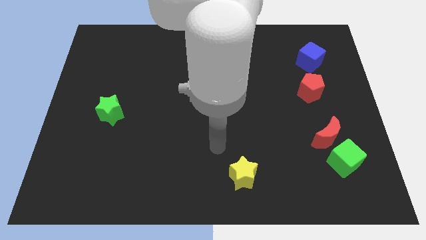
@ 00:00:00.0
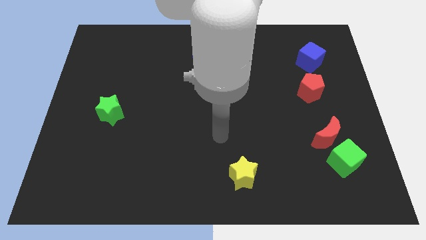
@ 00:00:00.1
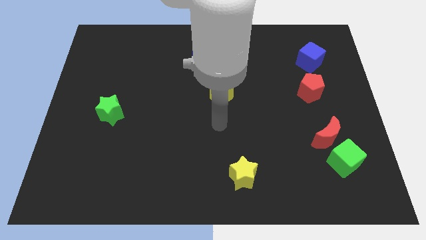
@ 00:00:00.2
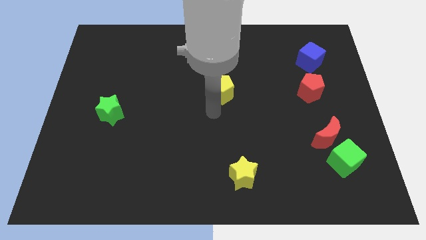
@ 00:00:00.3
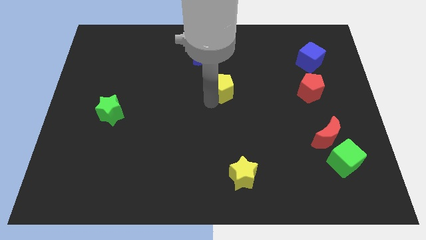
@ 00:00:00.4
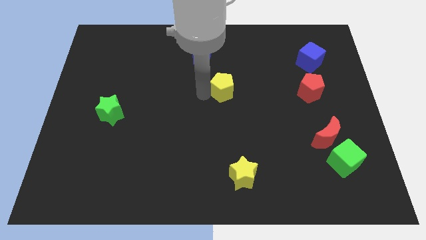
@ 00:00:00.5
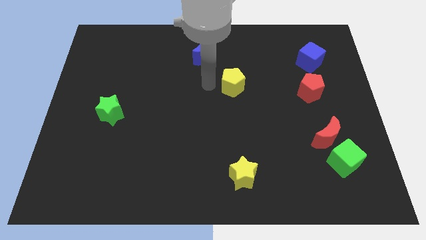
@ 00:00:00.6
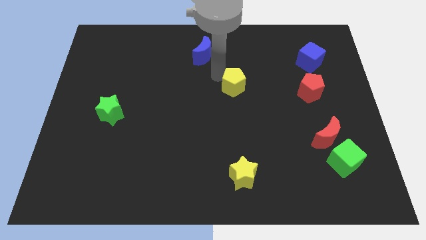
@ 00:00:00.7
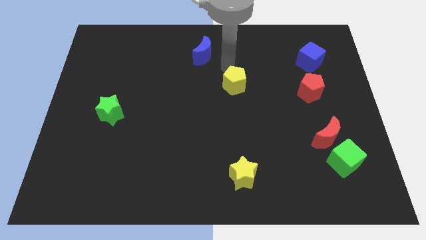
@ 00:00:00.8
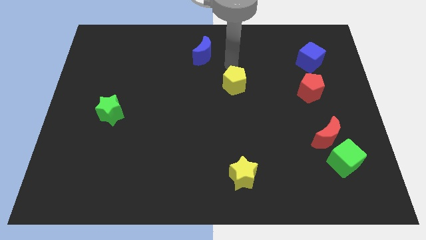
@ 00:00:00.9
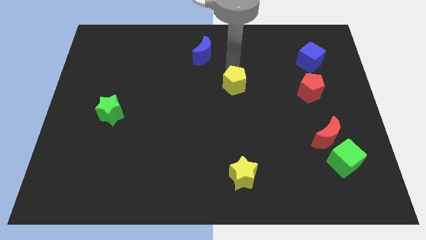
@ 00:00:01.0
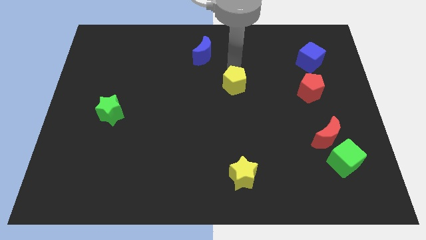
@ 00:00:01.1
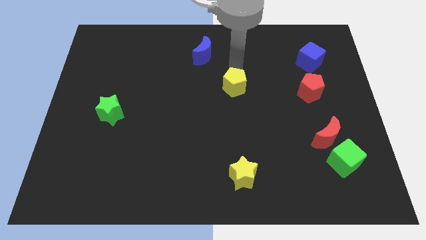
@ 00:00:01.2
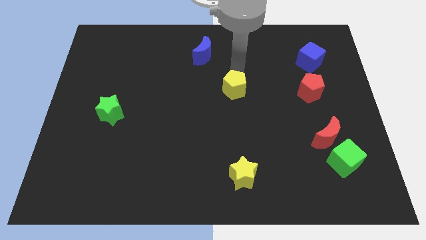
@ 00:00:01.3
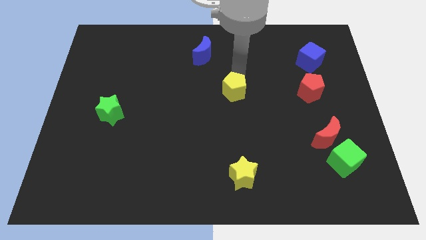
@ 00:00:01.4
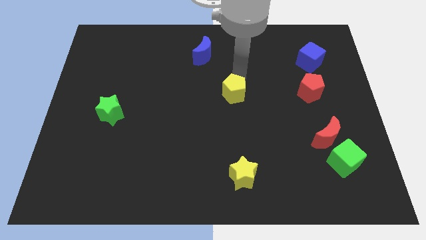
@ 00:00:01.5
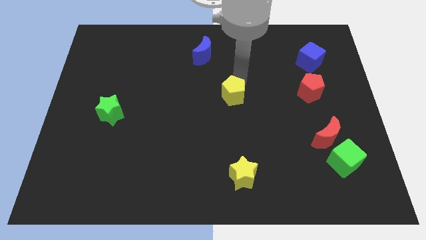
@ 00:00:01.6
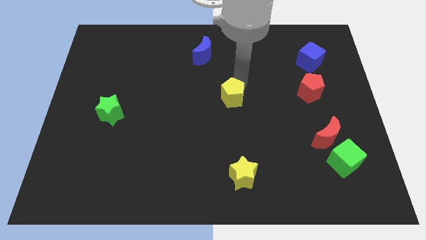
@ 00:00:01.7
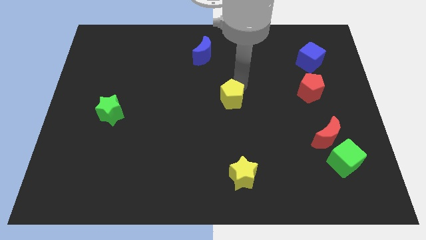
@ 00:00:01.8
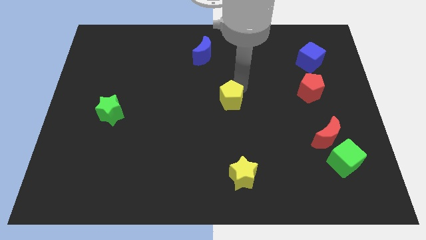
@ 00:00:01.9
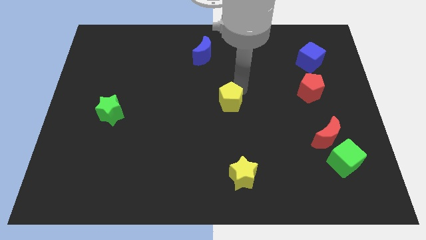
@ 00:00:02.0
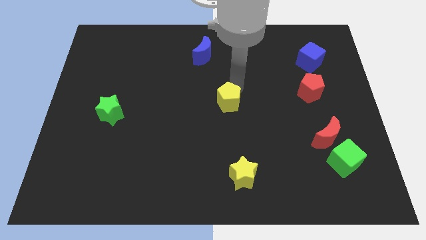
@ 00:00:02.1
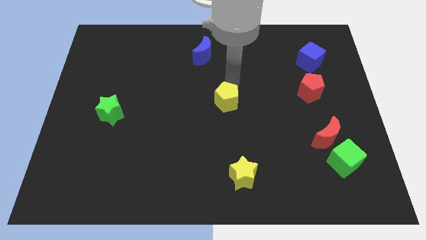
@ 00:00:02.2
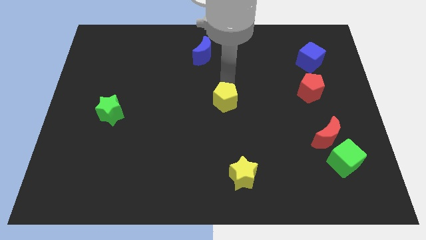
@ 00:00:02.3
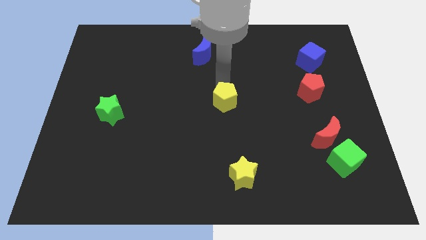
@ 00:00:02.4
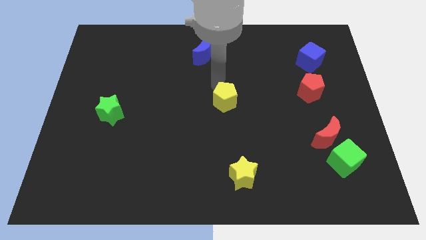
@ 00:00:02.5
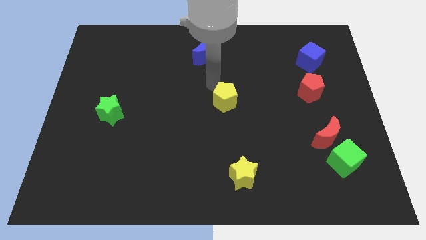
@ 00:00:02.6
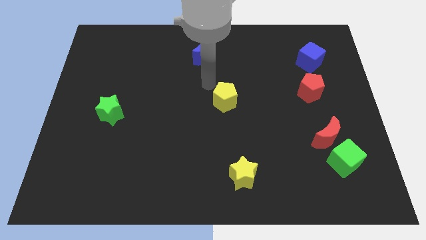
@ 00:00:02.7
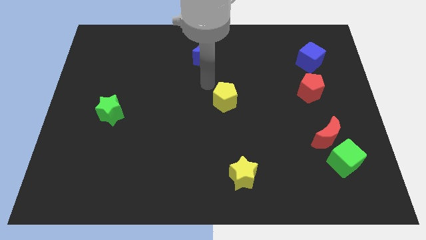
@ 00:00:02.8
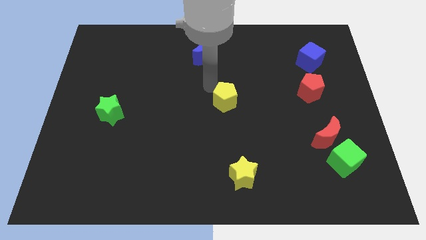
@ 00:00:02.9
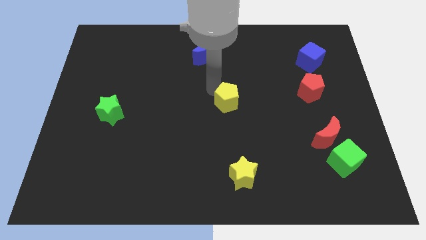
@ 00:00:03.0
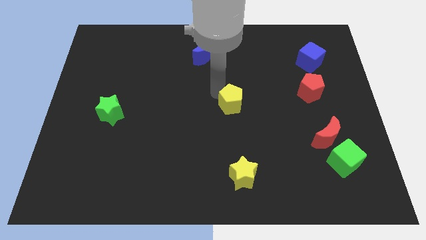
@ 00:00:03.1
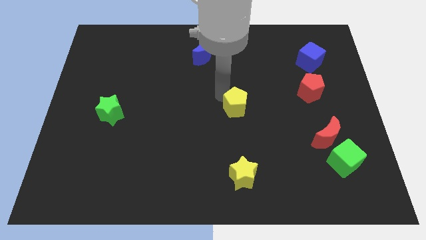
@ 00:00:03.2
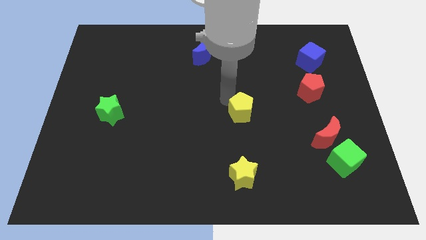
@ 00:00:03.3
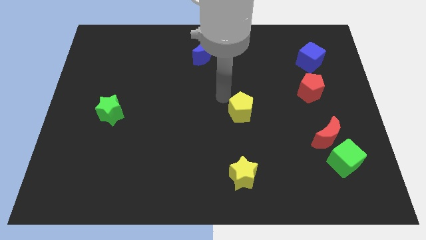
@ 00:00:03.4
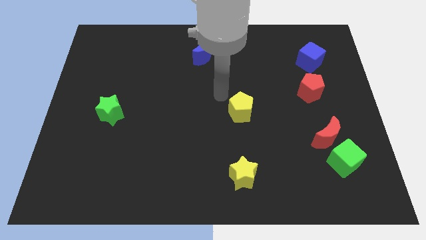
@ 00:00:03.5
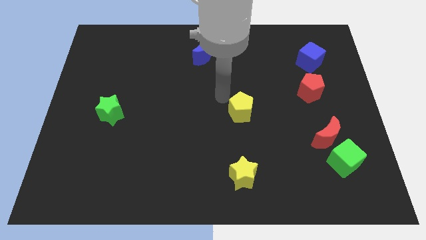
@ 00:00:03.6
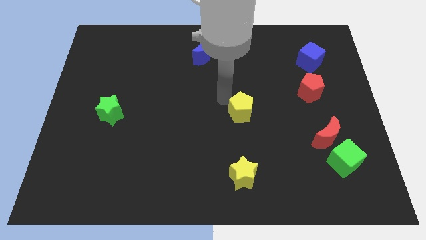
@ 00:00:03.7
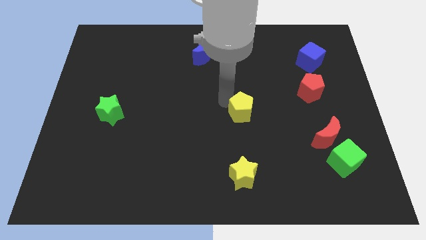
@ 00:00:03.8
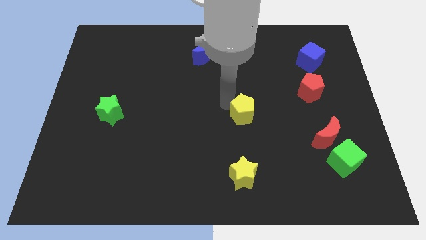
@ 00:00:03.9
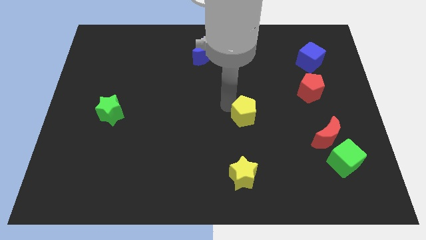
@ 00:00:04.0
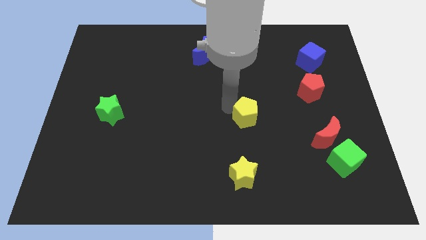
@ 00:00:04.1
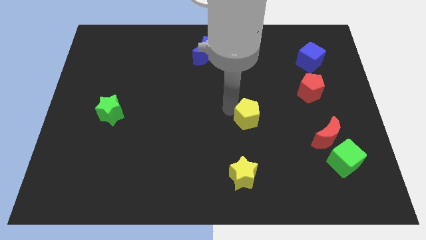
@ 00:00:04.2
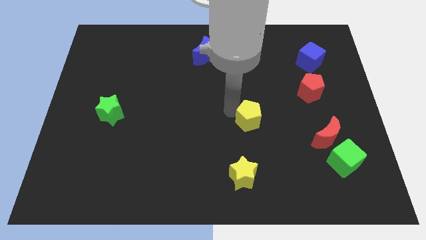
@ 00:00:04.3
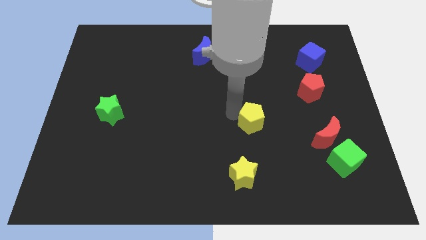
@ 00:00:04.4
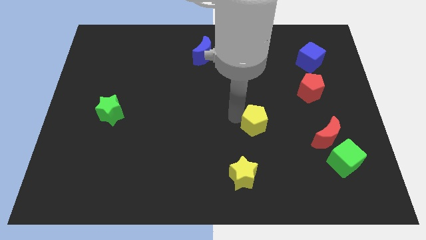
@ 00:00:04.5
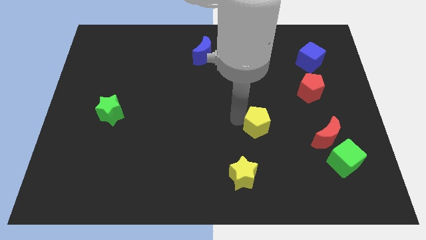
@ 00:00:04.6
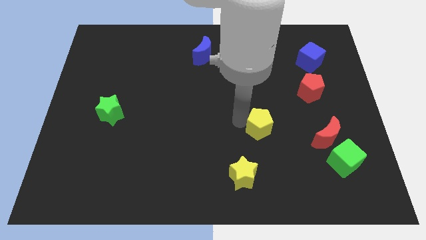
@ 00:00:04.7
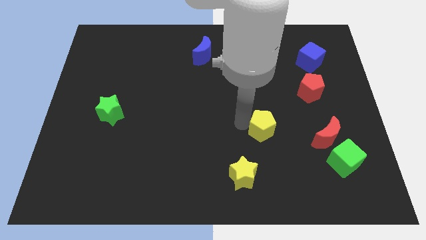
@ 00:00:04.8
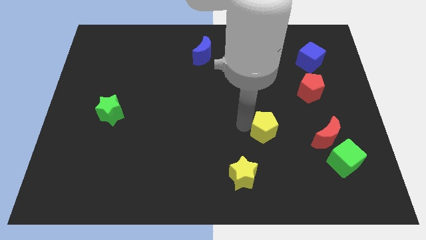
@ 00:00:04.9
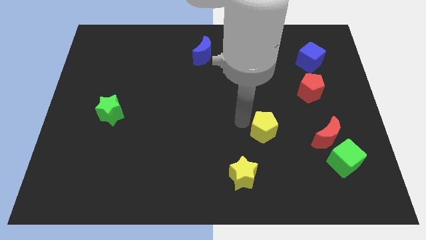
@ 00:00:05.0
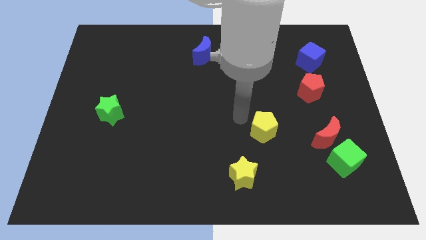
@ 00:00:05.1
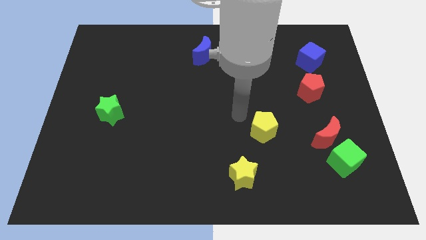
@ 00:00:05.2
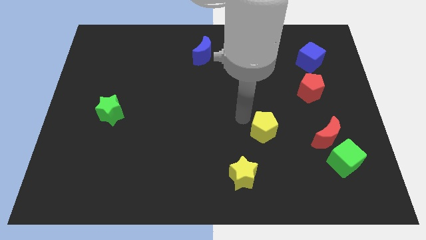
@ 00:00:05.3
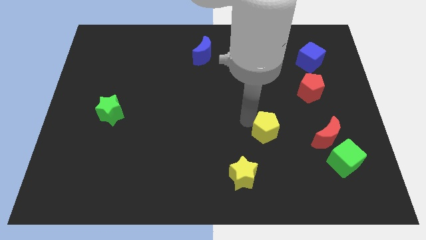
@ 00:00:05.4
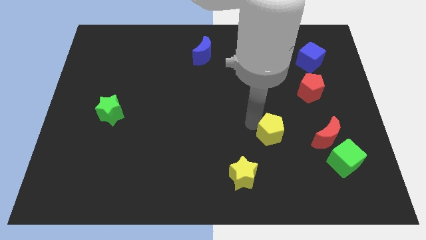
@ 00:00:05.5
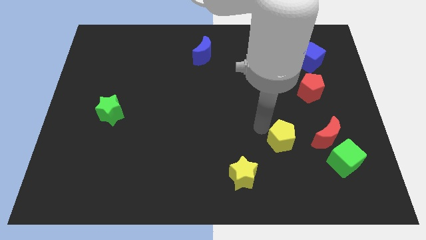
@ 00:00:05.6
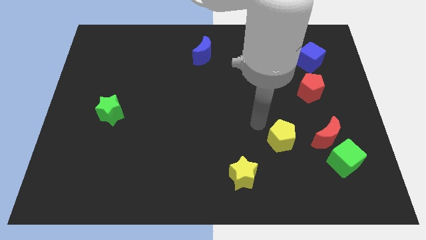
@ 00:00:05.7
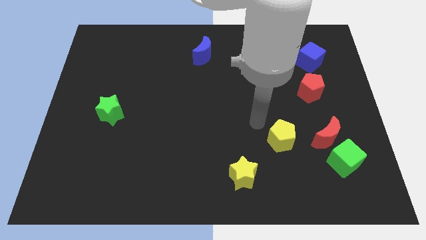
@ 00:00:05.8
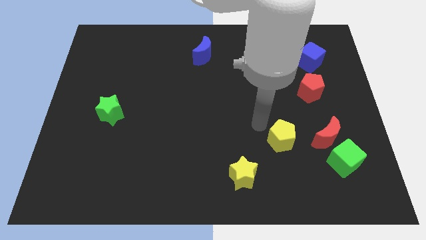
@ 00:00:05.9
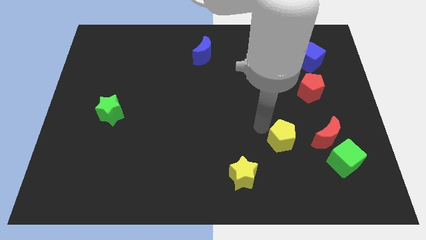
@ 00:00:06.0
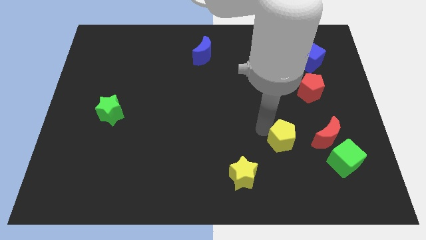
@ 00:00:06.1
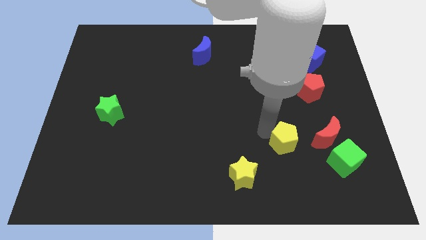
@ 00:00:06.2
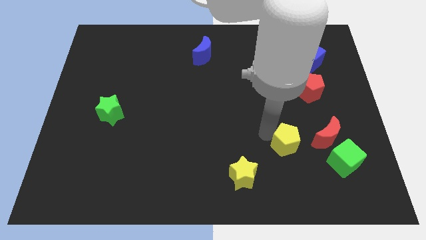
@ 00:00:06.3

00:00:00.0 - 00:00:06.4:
move the yellow pentagon downwards and right

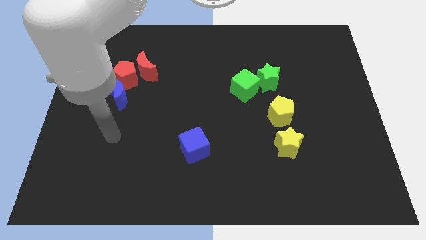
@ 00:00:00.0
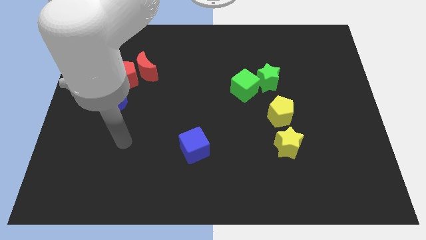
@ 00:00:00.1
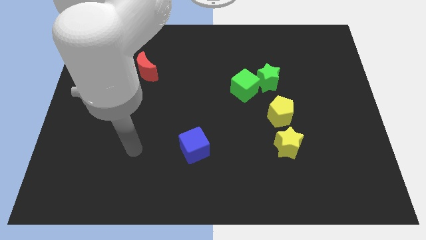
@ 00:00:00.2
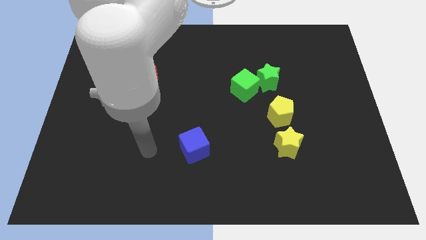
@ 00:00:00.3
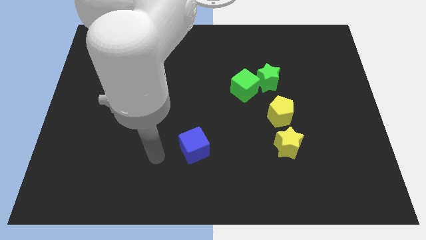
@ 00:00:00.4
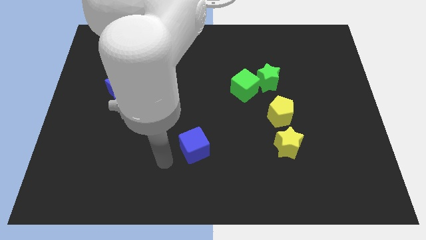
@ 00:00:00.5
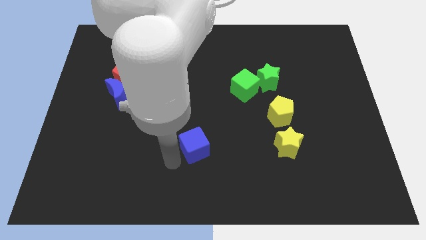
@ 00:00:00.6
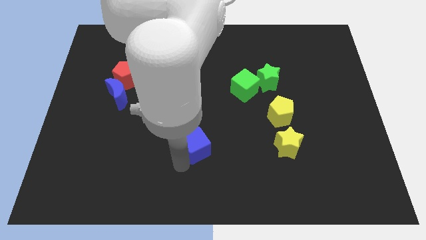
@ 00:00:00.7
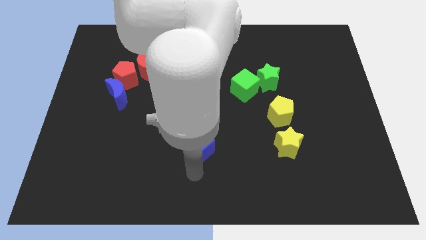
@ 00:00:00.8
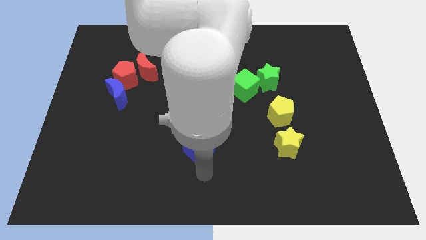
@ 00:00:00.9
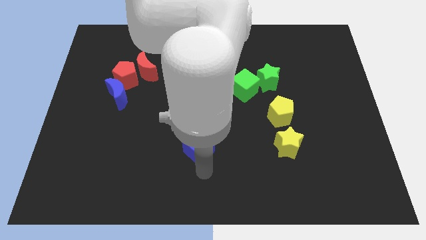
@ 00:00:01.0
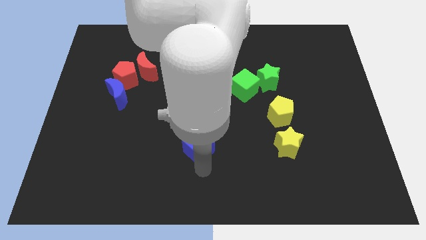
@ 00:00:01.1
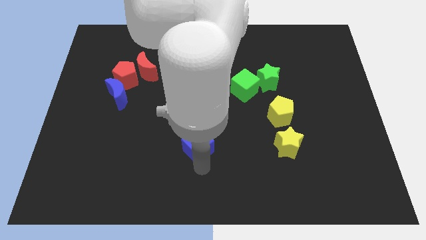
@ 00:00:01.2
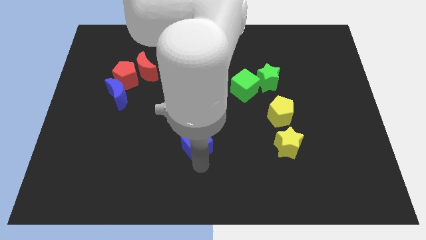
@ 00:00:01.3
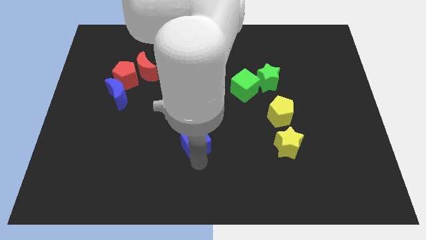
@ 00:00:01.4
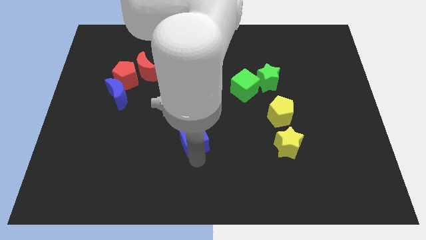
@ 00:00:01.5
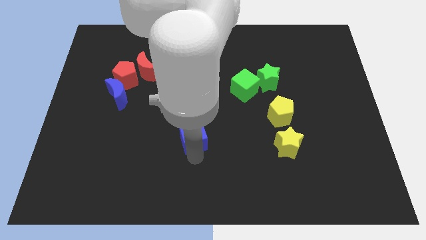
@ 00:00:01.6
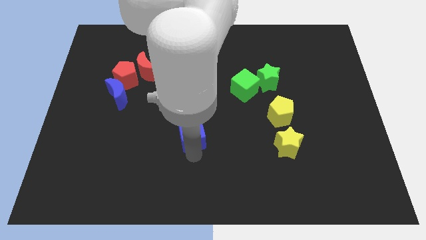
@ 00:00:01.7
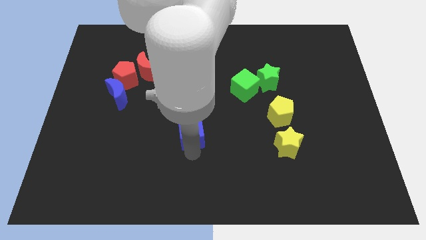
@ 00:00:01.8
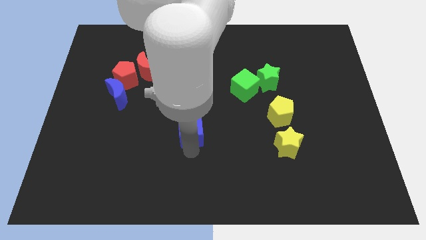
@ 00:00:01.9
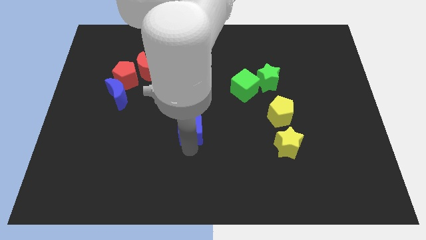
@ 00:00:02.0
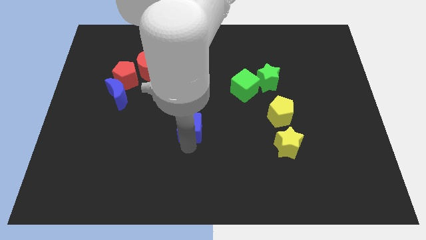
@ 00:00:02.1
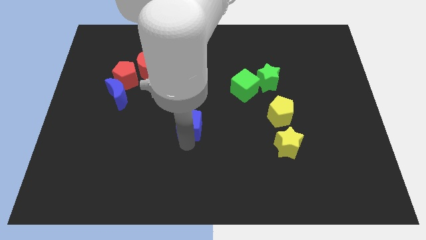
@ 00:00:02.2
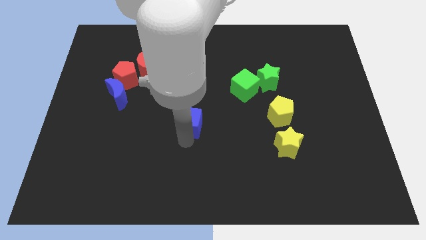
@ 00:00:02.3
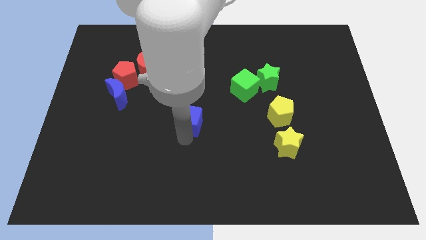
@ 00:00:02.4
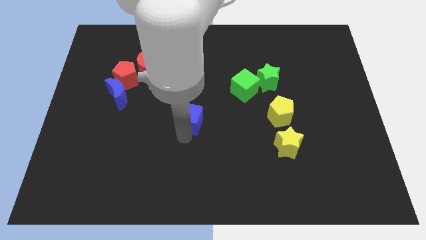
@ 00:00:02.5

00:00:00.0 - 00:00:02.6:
push the blue cube up a little bit
